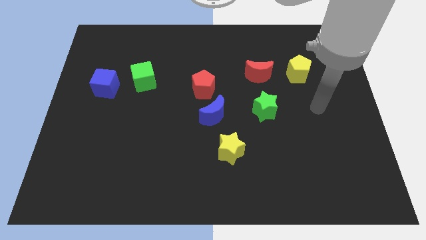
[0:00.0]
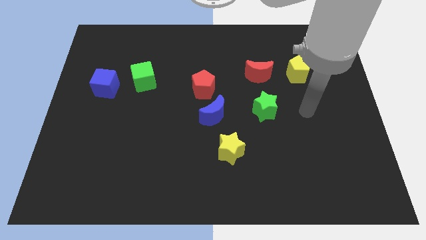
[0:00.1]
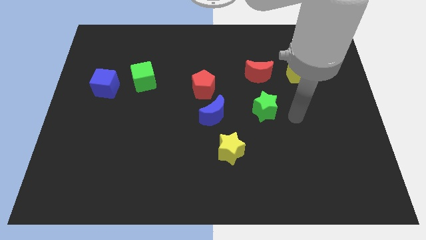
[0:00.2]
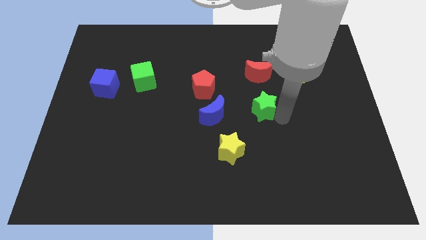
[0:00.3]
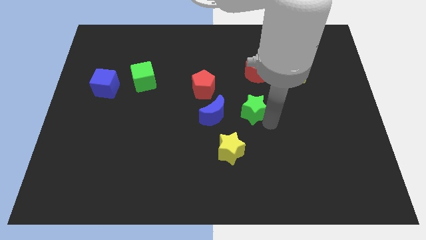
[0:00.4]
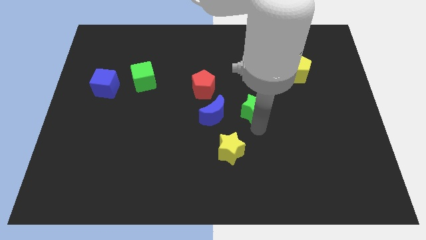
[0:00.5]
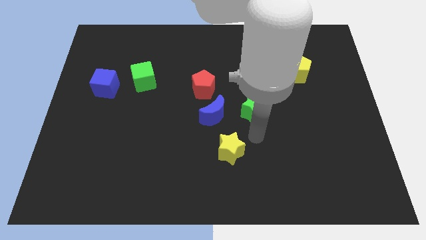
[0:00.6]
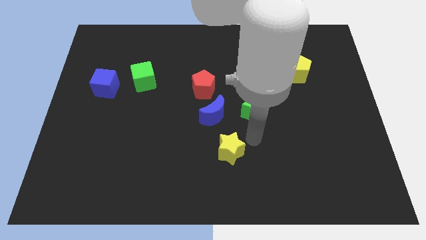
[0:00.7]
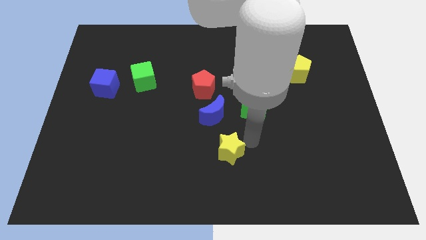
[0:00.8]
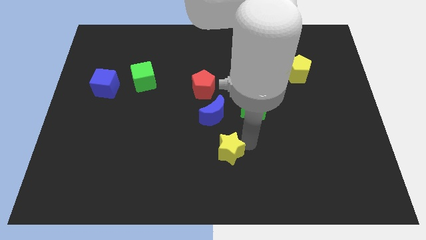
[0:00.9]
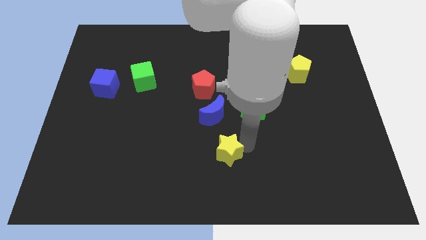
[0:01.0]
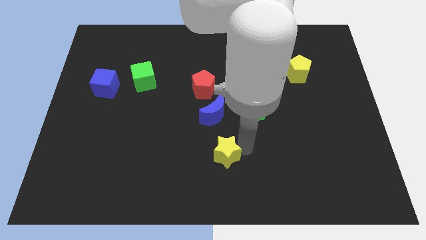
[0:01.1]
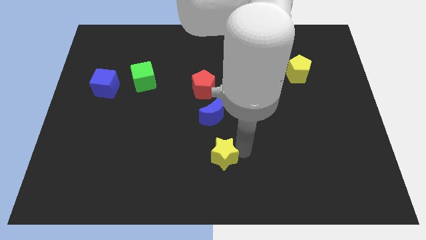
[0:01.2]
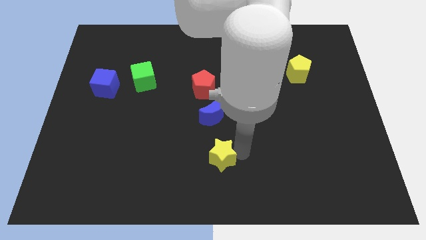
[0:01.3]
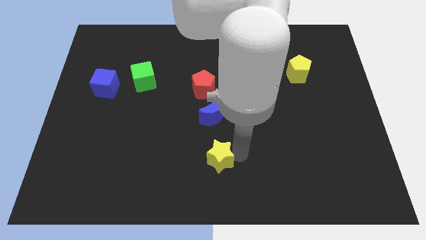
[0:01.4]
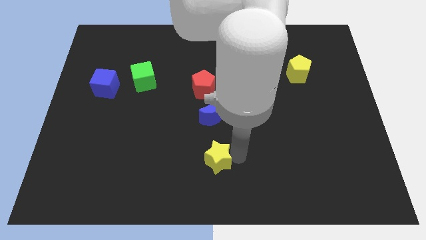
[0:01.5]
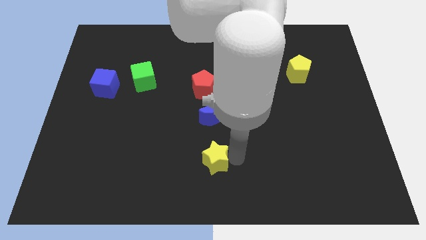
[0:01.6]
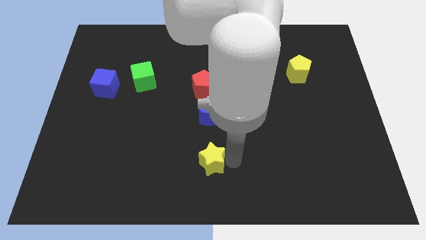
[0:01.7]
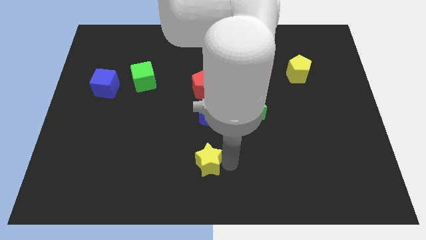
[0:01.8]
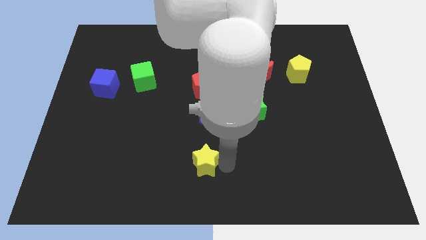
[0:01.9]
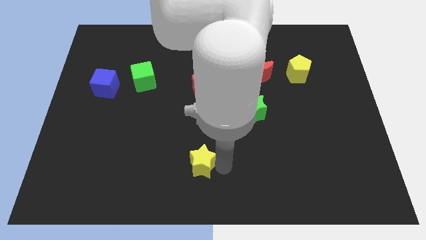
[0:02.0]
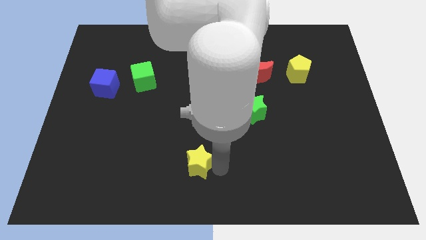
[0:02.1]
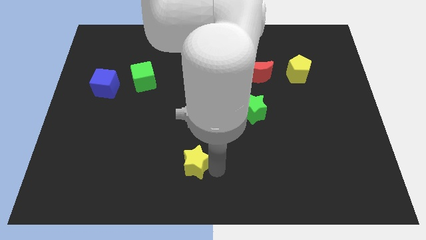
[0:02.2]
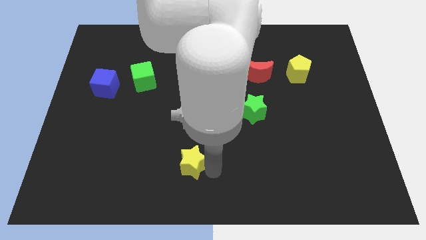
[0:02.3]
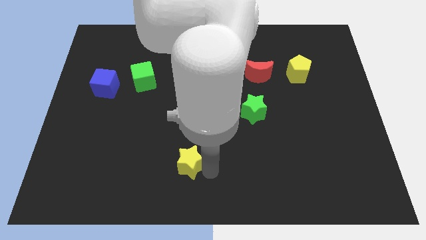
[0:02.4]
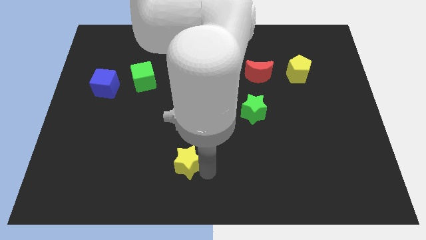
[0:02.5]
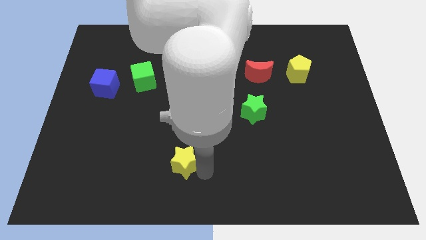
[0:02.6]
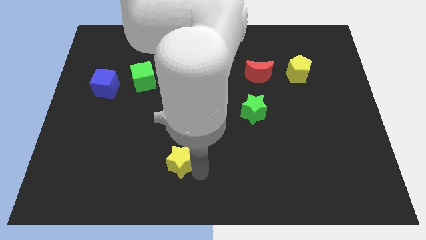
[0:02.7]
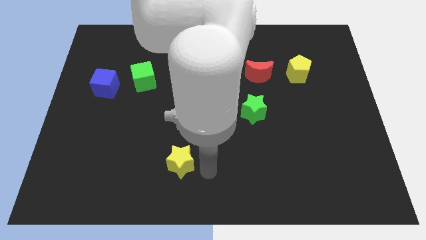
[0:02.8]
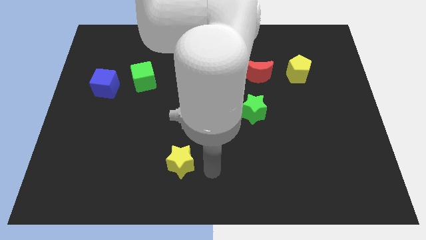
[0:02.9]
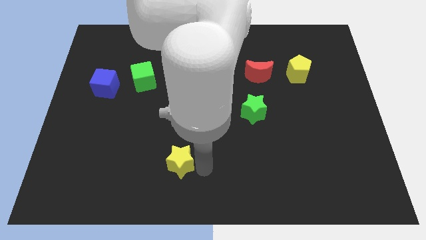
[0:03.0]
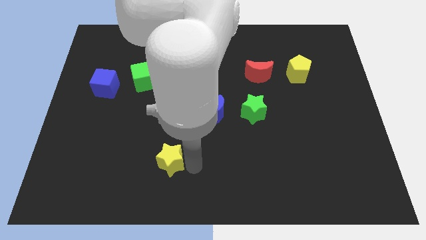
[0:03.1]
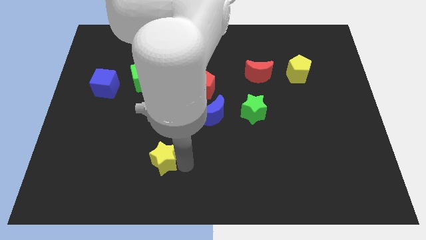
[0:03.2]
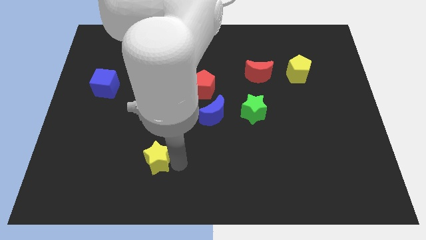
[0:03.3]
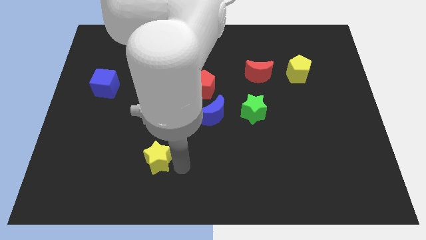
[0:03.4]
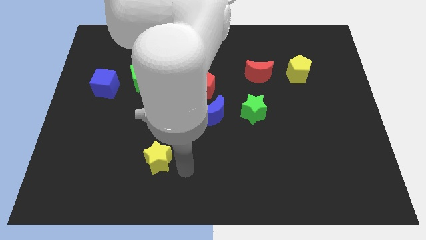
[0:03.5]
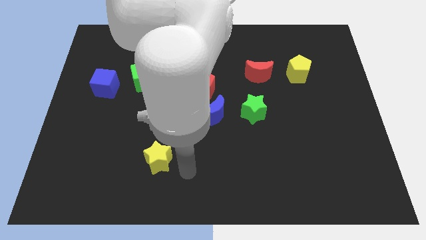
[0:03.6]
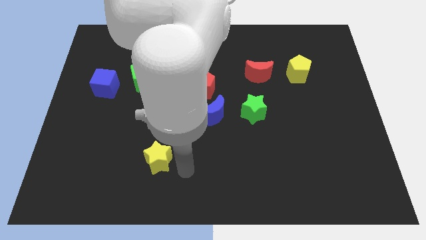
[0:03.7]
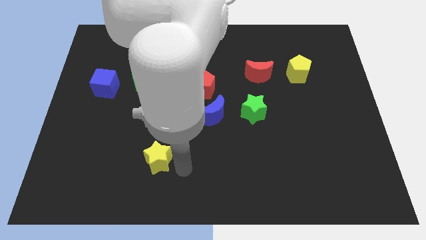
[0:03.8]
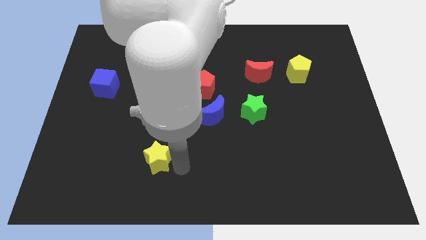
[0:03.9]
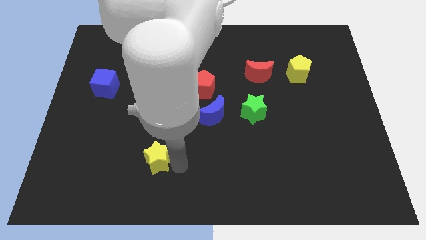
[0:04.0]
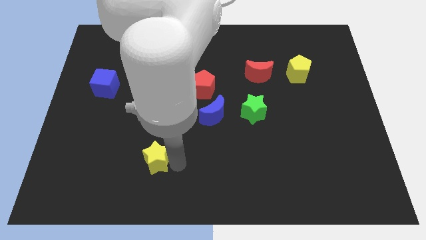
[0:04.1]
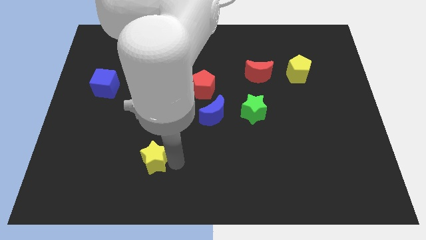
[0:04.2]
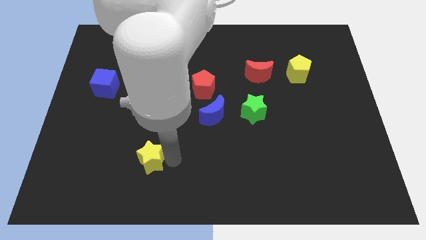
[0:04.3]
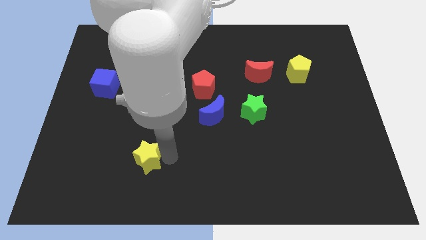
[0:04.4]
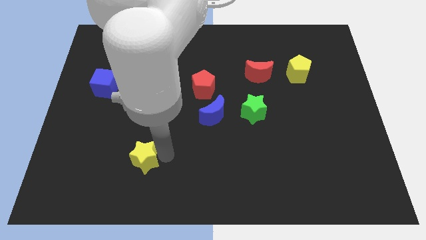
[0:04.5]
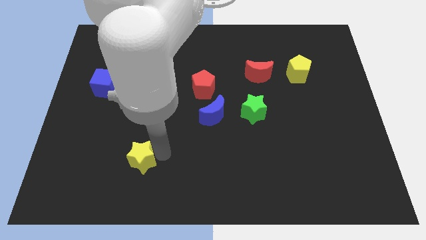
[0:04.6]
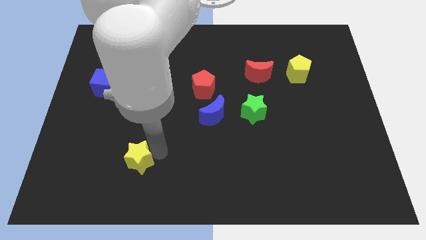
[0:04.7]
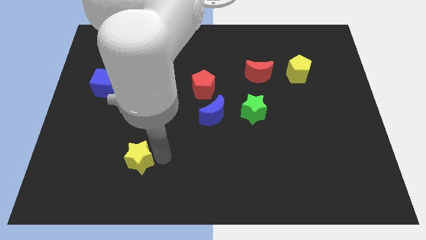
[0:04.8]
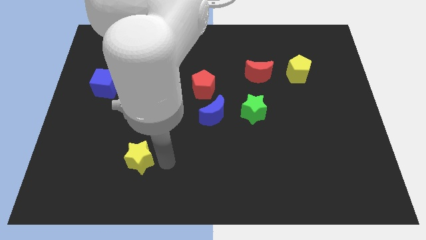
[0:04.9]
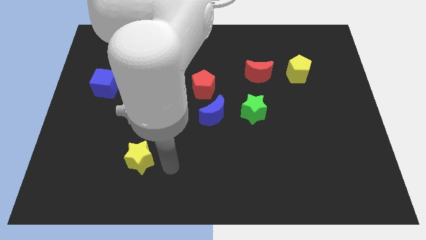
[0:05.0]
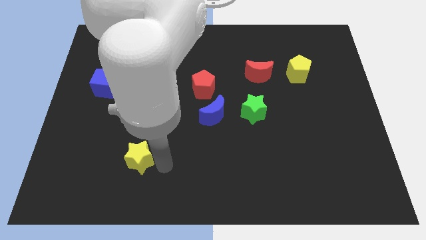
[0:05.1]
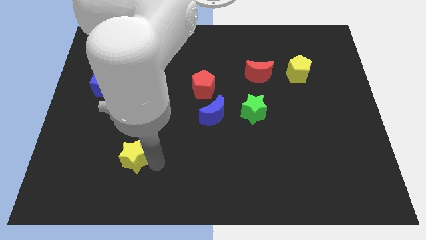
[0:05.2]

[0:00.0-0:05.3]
slide the yellow star to the left

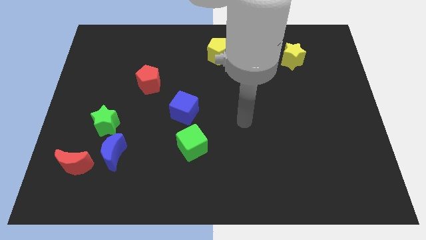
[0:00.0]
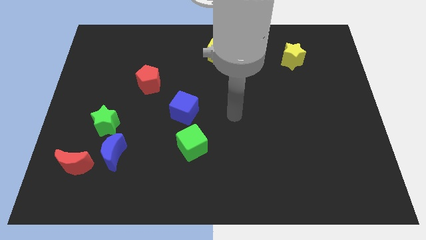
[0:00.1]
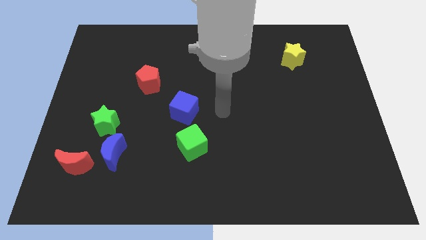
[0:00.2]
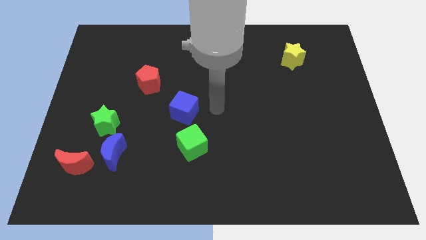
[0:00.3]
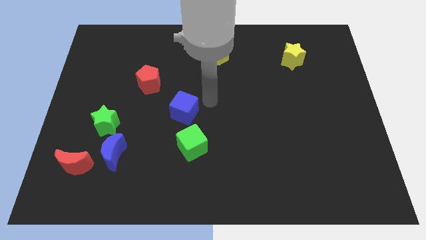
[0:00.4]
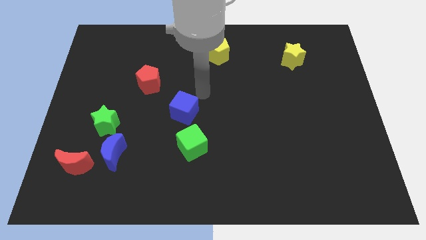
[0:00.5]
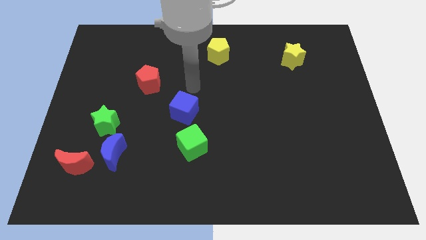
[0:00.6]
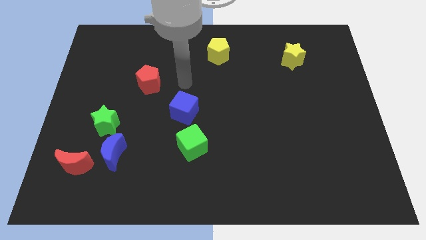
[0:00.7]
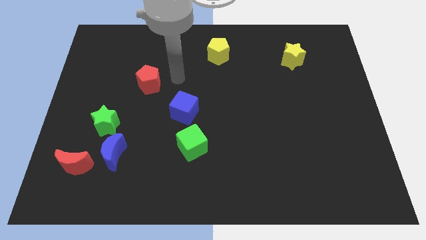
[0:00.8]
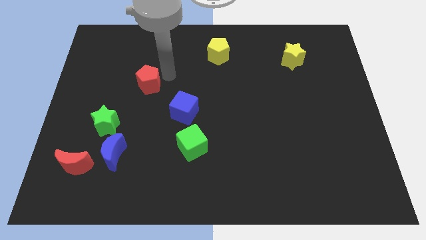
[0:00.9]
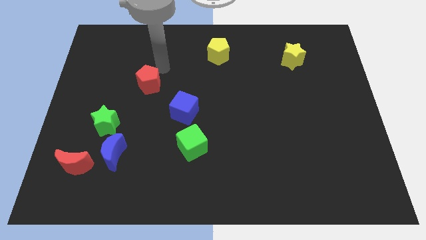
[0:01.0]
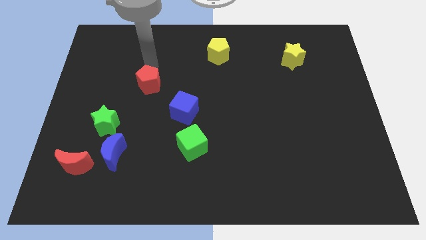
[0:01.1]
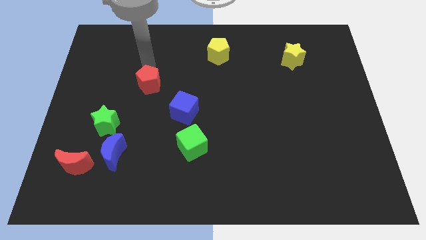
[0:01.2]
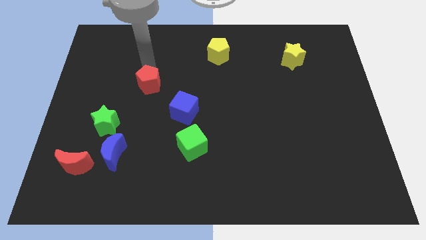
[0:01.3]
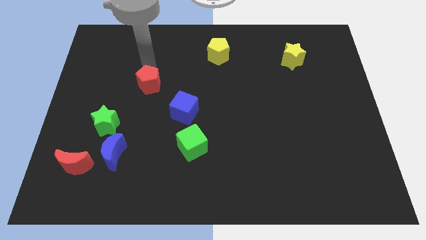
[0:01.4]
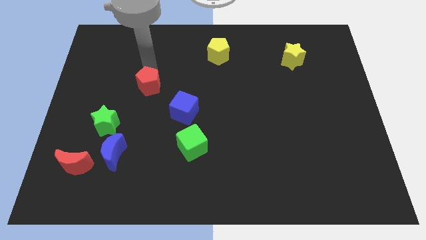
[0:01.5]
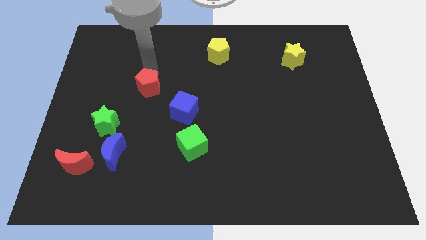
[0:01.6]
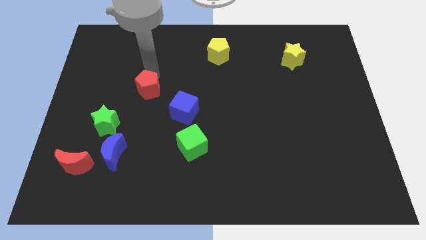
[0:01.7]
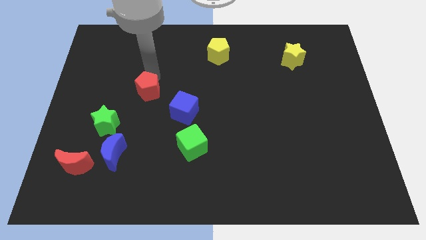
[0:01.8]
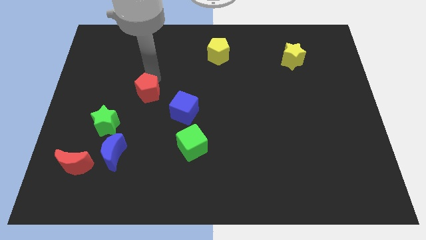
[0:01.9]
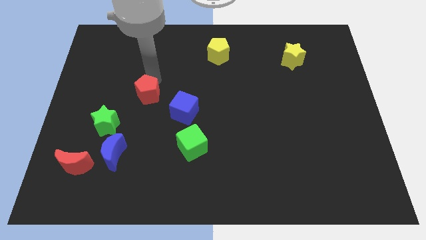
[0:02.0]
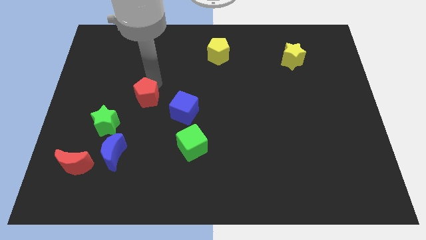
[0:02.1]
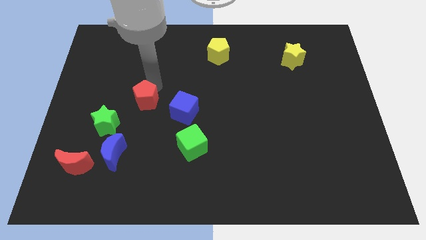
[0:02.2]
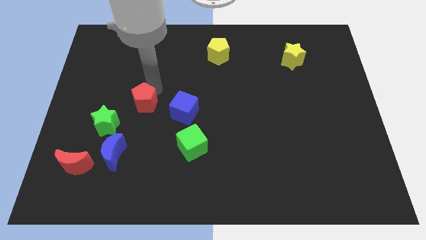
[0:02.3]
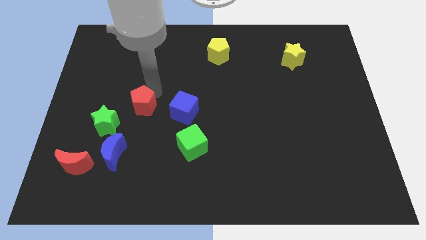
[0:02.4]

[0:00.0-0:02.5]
move the red pentagon down slightly
